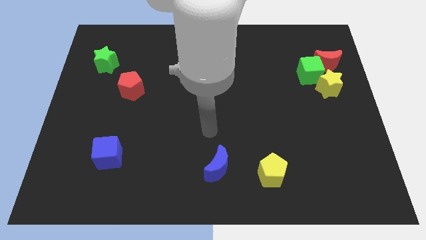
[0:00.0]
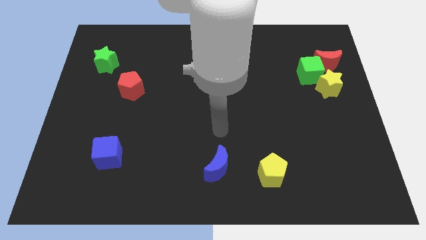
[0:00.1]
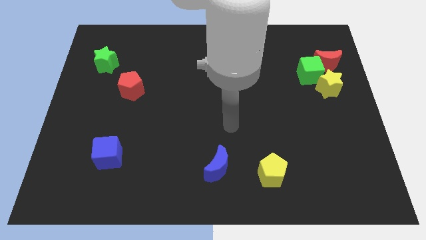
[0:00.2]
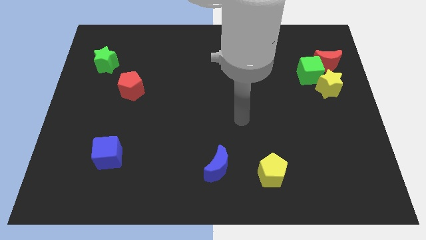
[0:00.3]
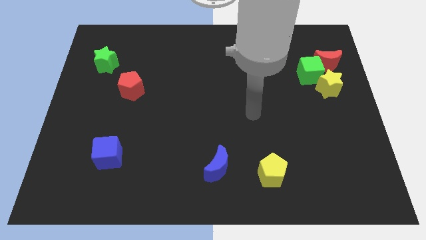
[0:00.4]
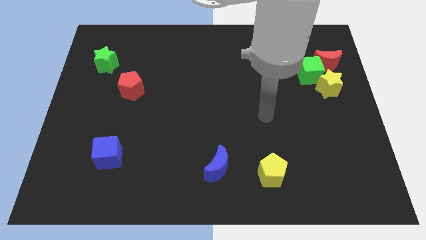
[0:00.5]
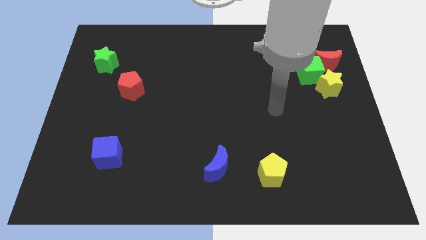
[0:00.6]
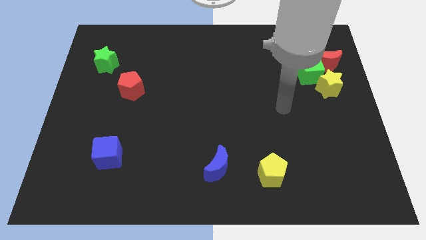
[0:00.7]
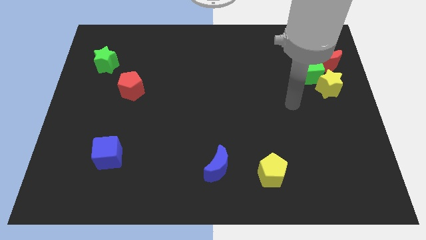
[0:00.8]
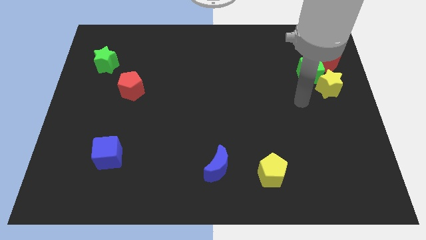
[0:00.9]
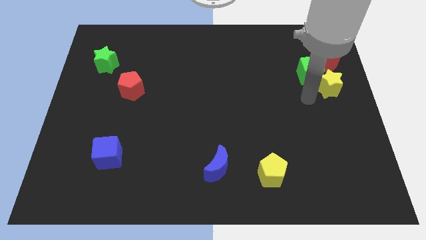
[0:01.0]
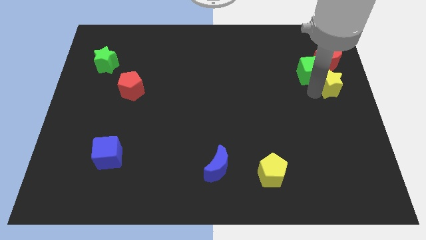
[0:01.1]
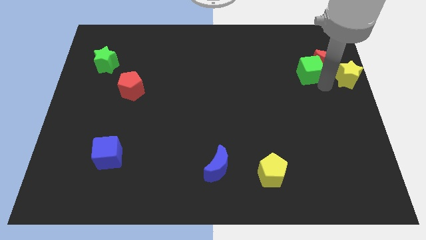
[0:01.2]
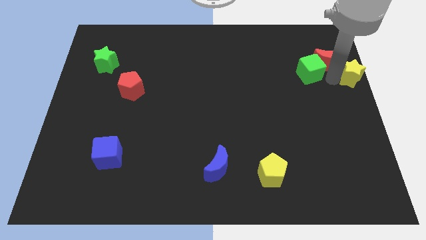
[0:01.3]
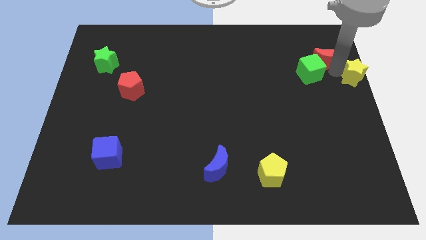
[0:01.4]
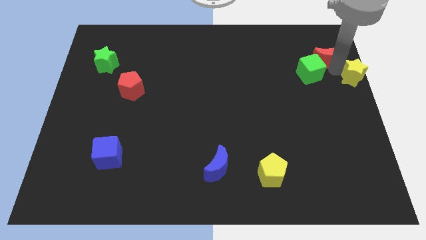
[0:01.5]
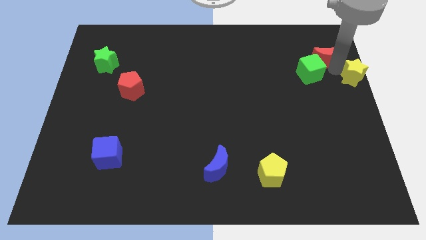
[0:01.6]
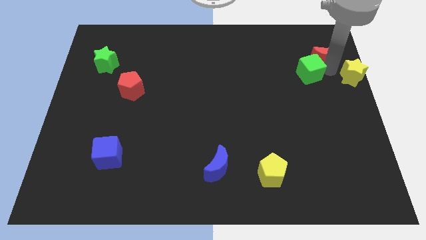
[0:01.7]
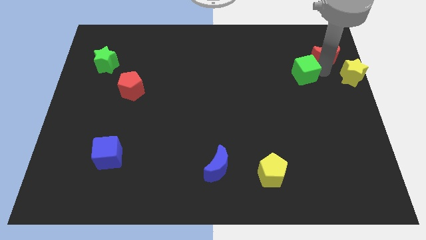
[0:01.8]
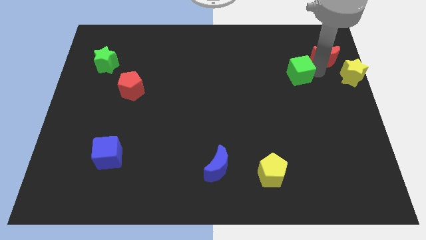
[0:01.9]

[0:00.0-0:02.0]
pull the green cube apart from the yellow star and red moon

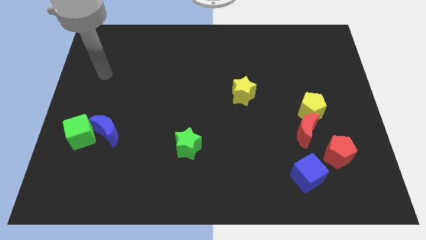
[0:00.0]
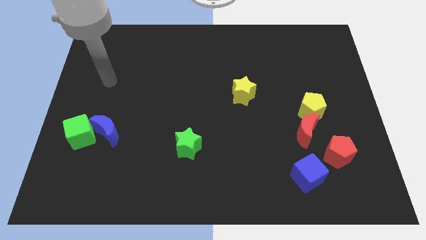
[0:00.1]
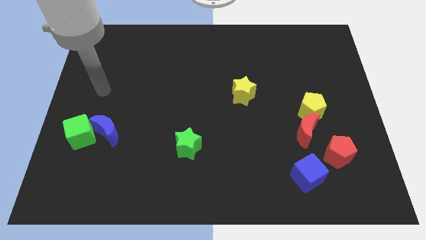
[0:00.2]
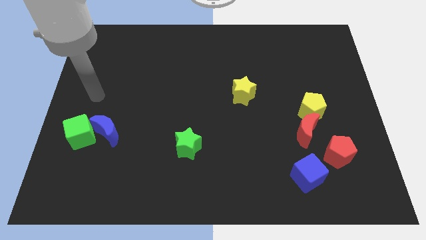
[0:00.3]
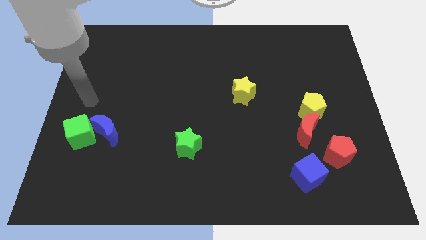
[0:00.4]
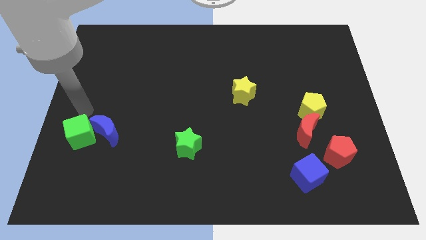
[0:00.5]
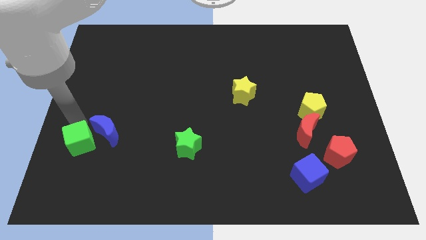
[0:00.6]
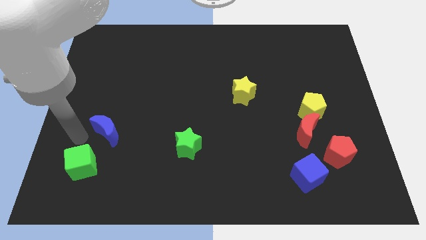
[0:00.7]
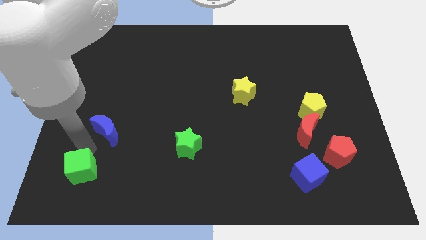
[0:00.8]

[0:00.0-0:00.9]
separate the blue moon from the green cube

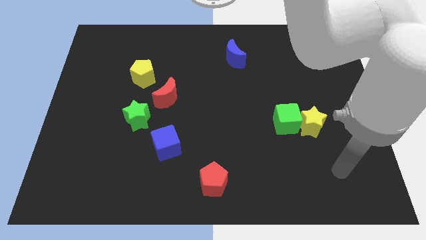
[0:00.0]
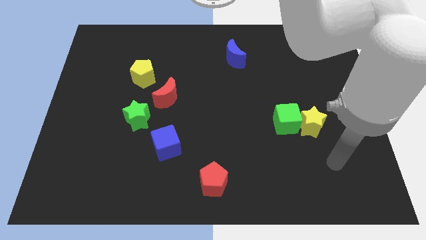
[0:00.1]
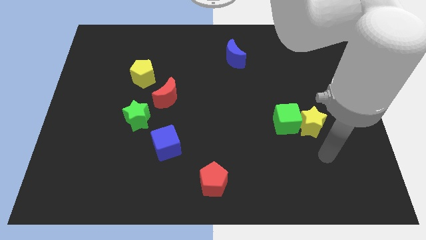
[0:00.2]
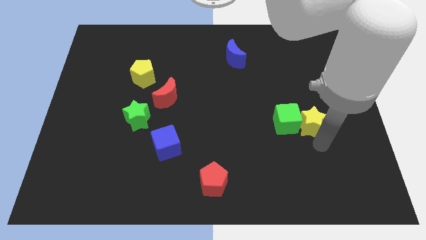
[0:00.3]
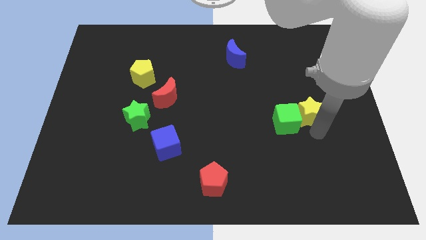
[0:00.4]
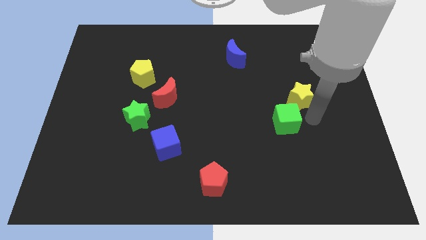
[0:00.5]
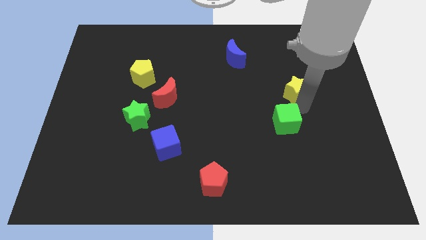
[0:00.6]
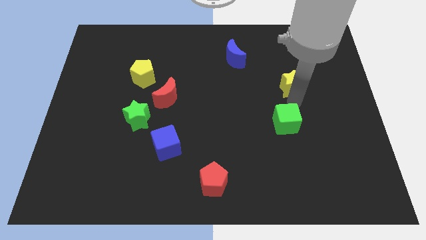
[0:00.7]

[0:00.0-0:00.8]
move the green cube away from the yellow star

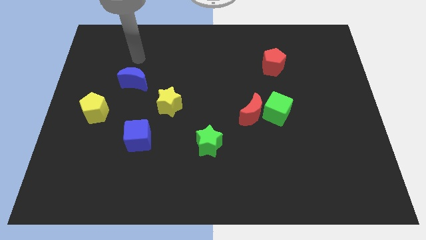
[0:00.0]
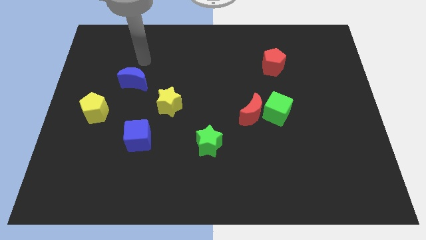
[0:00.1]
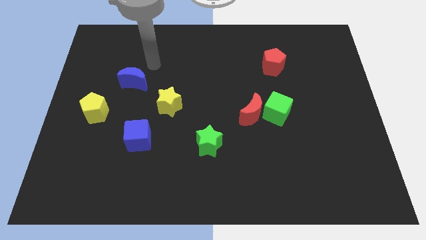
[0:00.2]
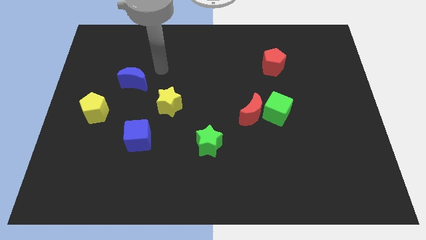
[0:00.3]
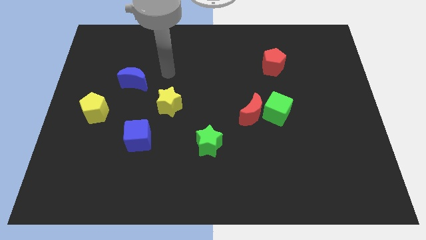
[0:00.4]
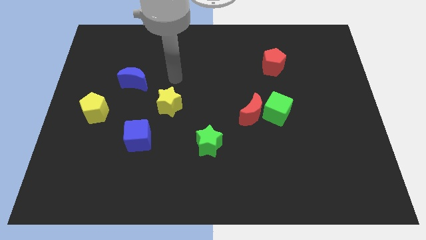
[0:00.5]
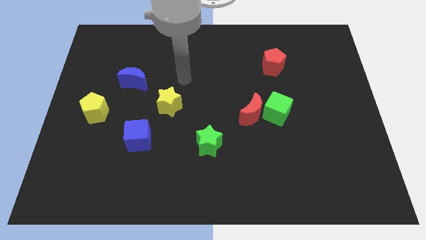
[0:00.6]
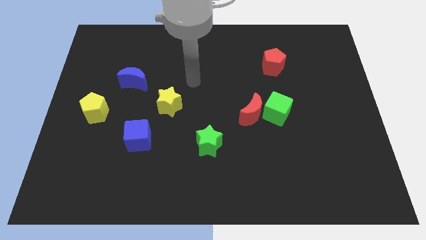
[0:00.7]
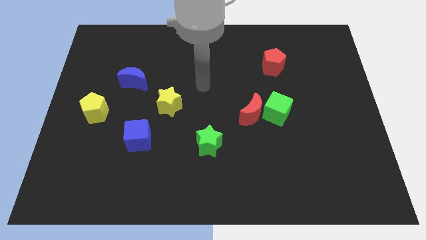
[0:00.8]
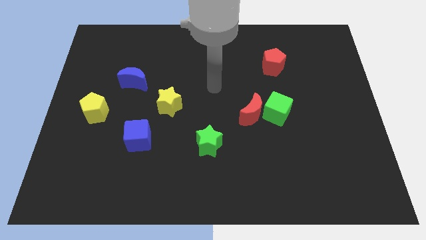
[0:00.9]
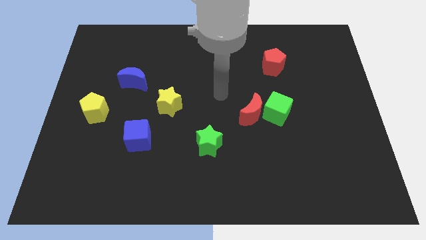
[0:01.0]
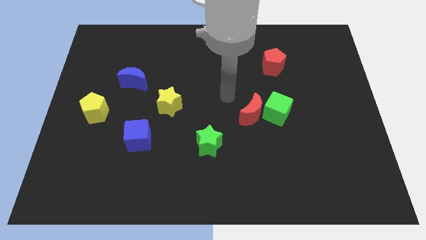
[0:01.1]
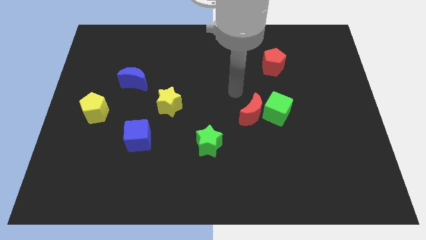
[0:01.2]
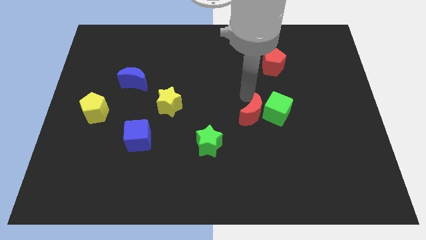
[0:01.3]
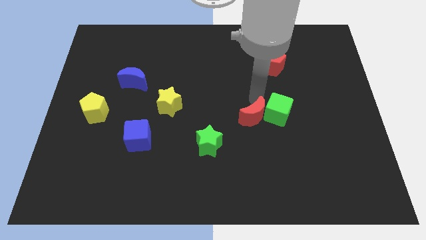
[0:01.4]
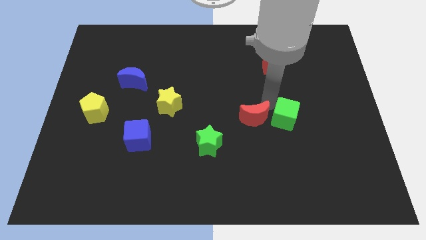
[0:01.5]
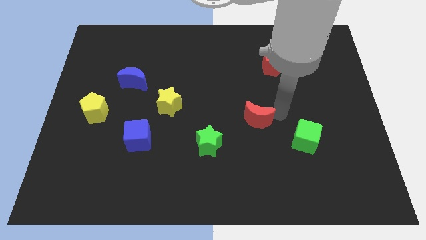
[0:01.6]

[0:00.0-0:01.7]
move the red moon away from the green cube

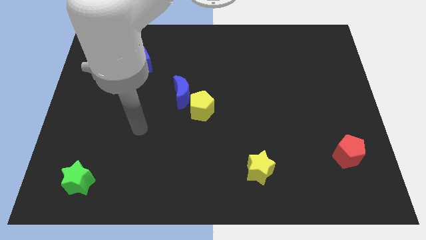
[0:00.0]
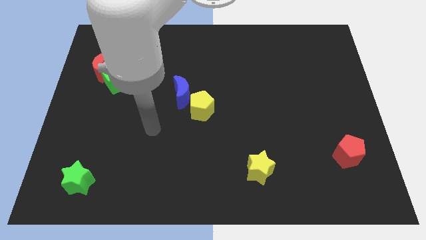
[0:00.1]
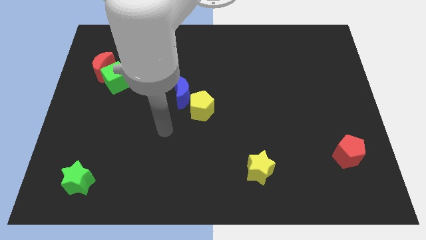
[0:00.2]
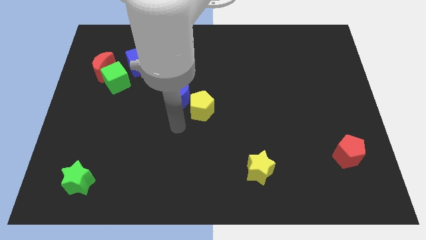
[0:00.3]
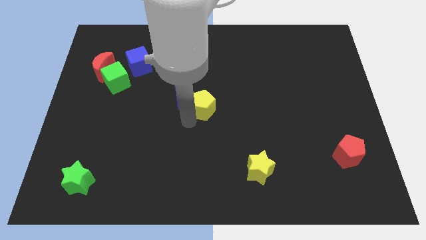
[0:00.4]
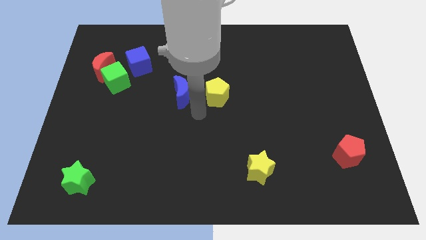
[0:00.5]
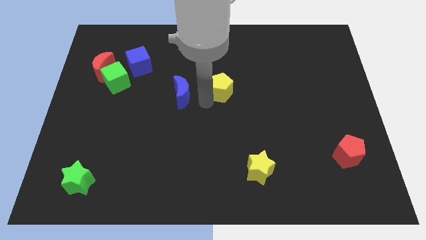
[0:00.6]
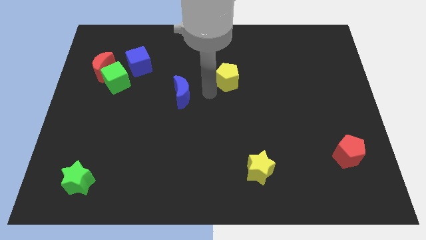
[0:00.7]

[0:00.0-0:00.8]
pull the blue moon apart from the yellow pentagon

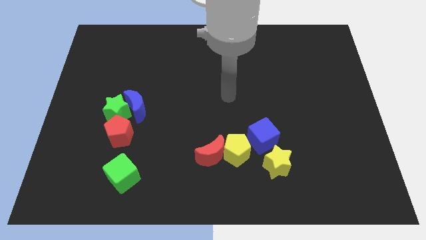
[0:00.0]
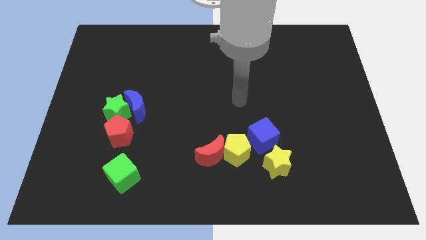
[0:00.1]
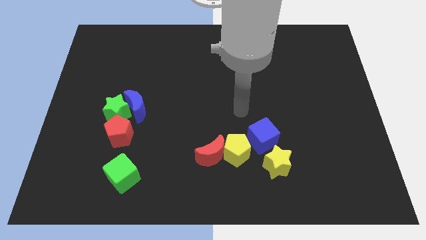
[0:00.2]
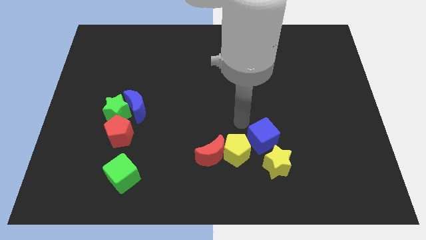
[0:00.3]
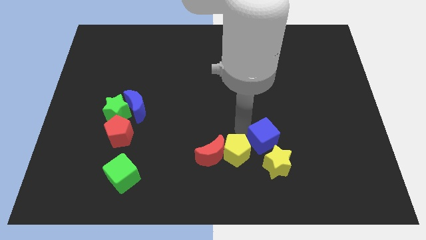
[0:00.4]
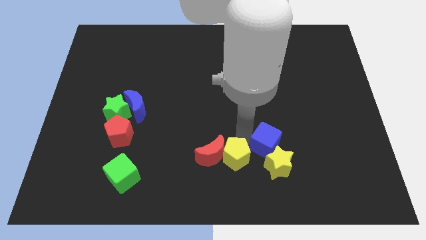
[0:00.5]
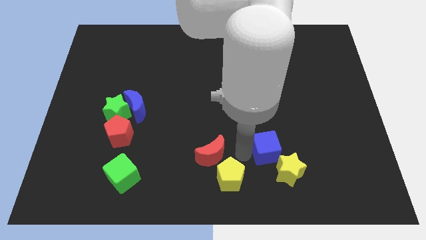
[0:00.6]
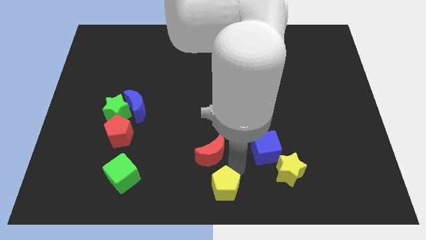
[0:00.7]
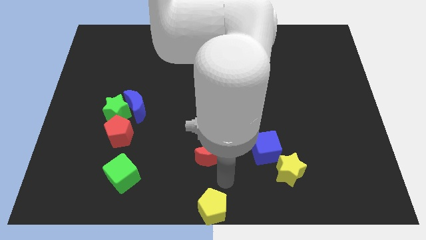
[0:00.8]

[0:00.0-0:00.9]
pull the red moon apart from the yellow pentagon

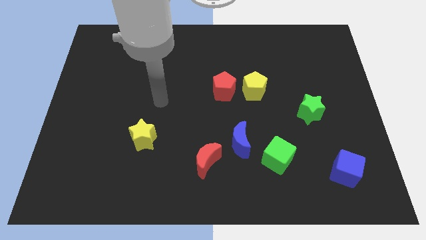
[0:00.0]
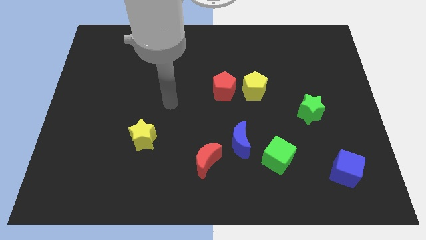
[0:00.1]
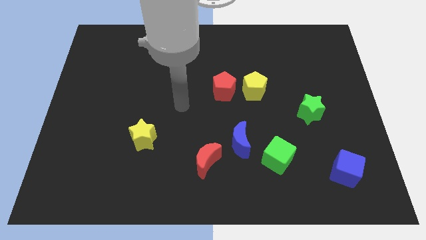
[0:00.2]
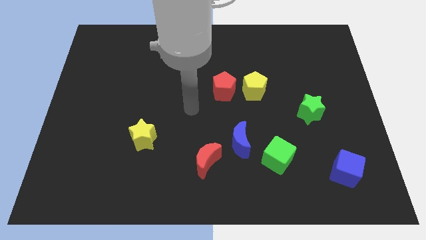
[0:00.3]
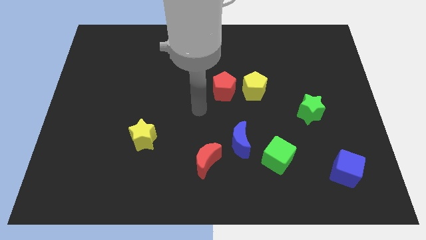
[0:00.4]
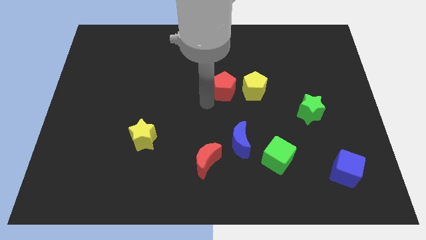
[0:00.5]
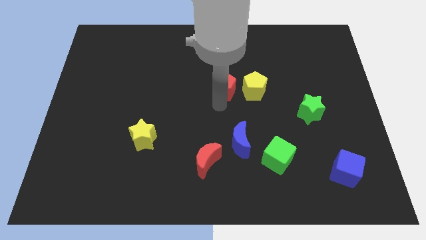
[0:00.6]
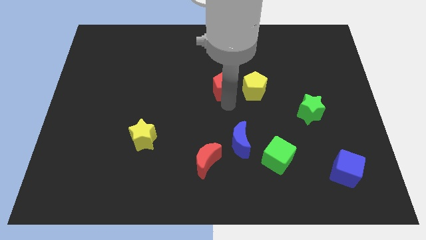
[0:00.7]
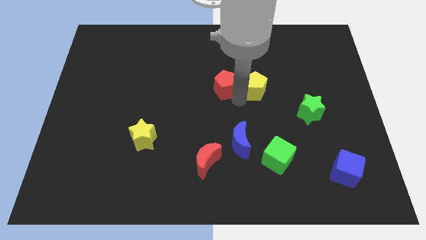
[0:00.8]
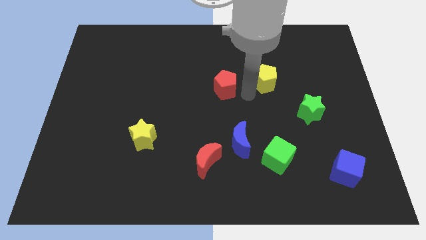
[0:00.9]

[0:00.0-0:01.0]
separate the red pentagon from the yellow pentagon

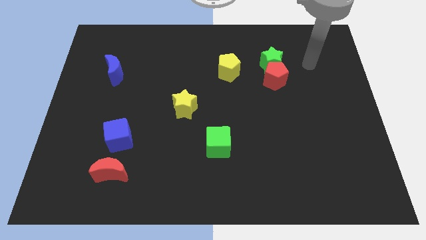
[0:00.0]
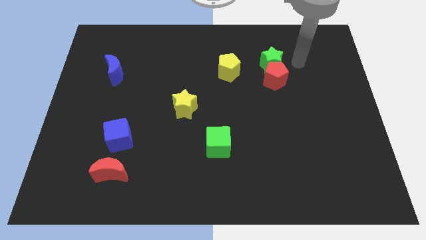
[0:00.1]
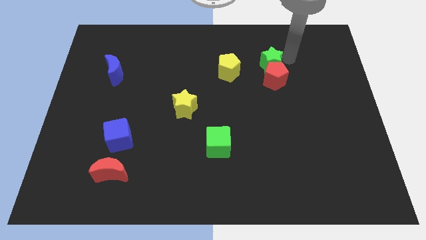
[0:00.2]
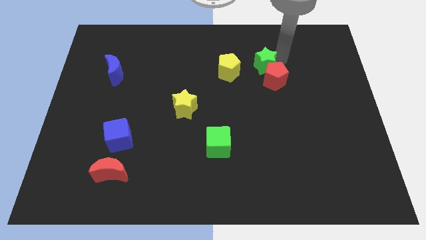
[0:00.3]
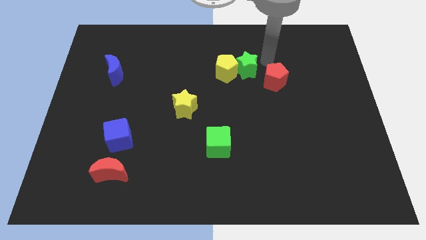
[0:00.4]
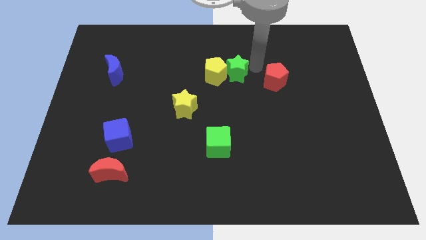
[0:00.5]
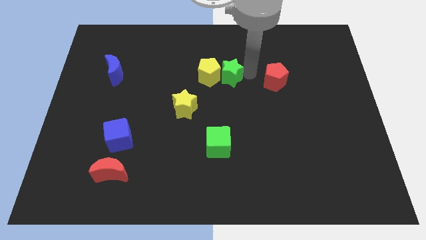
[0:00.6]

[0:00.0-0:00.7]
pull the red pentagon apart from the green star

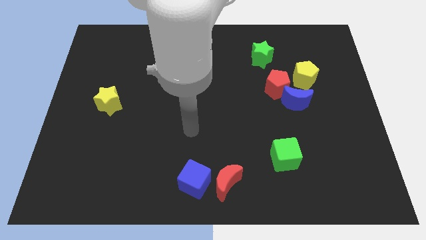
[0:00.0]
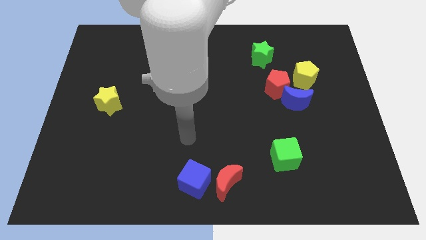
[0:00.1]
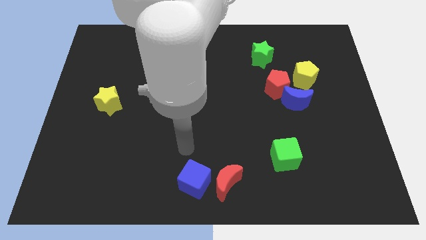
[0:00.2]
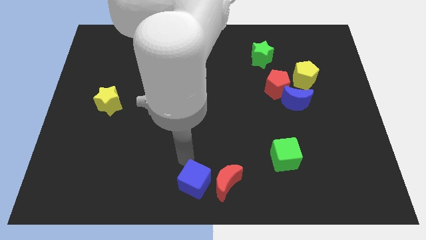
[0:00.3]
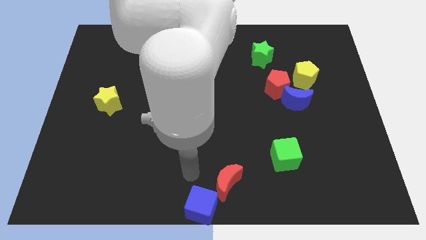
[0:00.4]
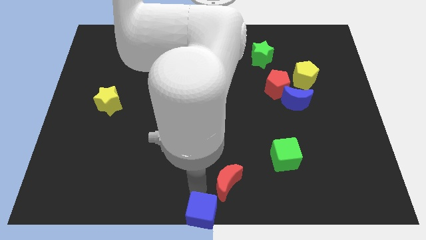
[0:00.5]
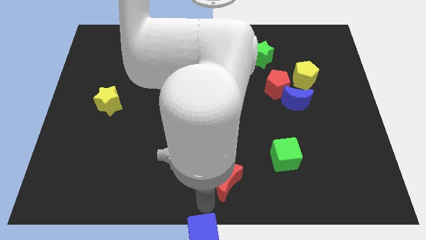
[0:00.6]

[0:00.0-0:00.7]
move the red moon away from the blue cube
